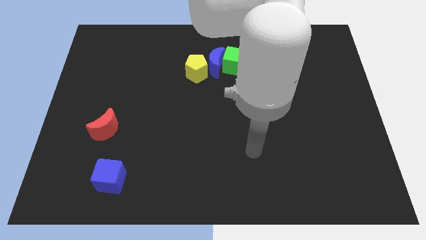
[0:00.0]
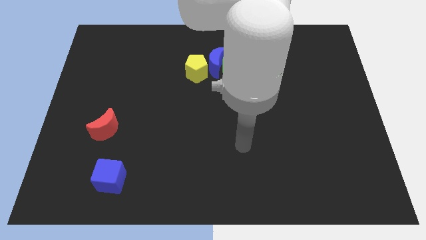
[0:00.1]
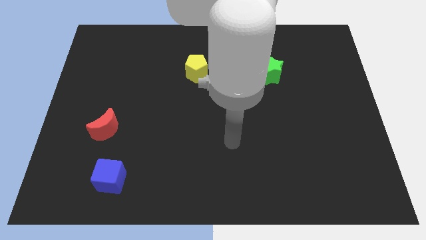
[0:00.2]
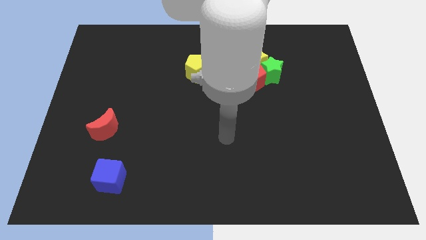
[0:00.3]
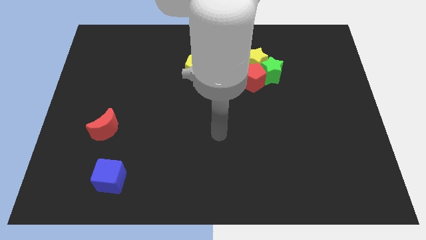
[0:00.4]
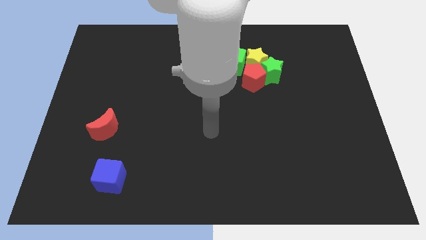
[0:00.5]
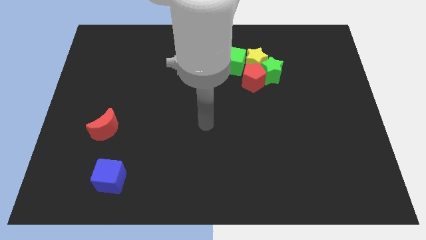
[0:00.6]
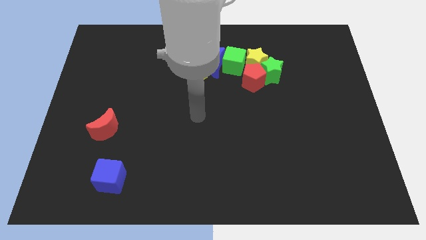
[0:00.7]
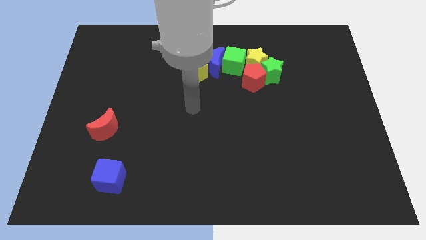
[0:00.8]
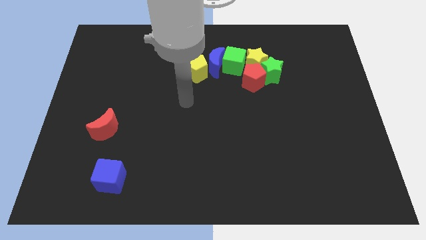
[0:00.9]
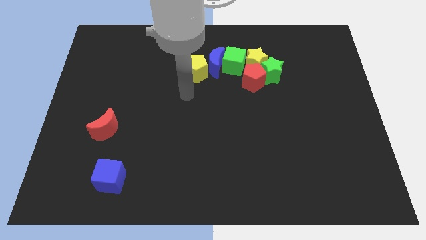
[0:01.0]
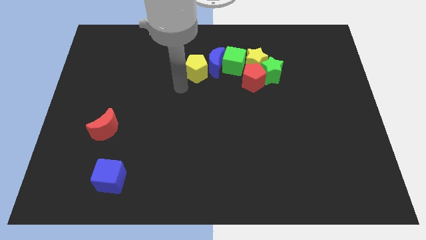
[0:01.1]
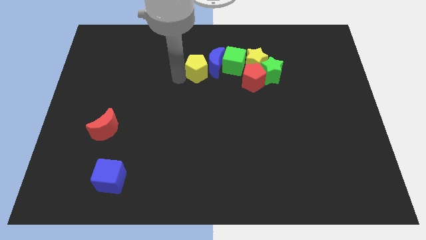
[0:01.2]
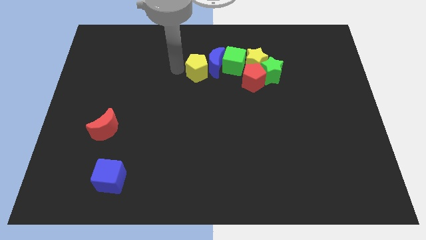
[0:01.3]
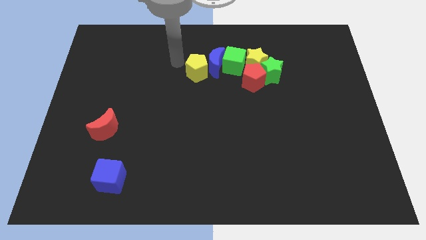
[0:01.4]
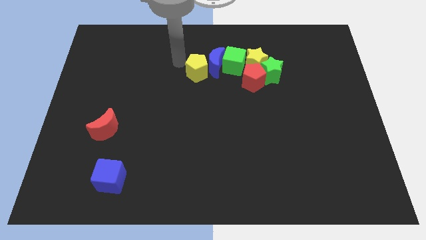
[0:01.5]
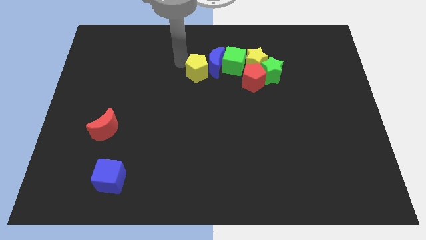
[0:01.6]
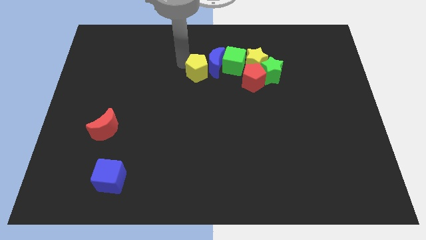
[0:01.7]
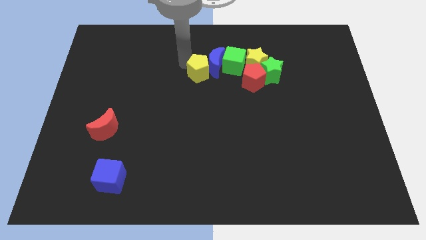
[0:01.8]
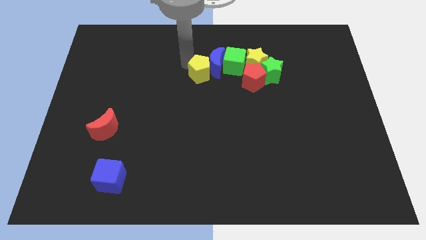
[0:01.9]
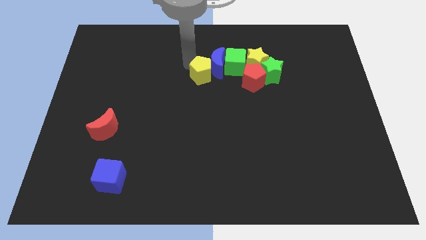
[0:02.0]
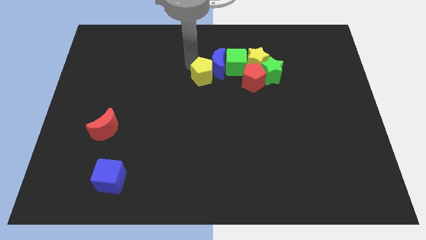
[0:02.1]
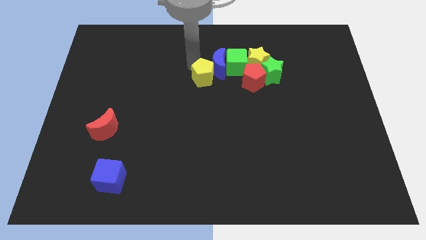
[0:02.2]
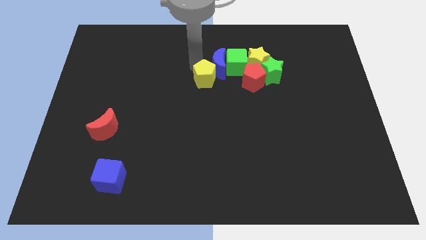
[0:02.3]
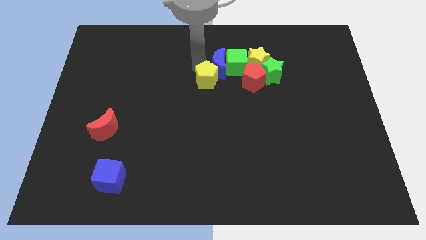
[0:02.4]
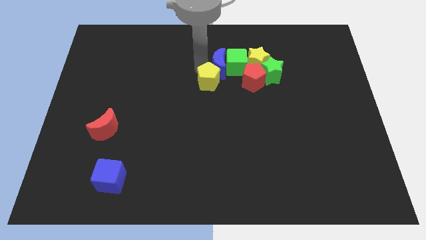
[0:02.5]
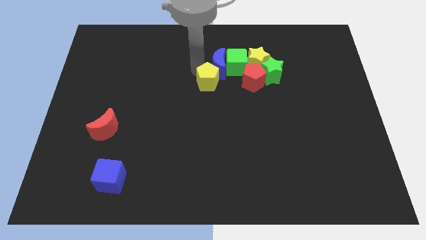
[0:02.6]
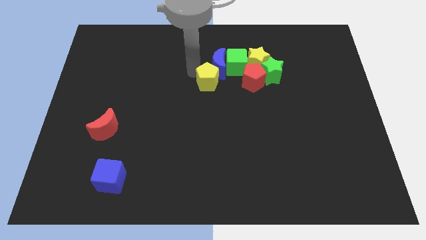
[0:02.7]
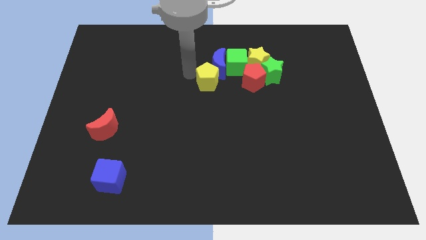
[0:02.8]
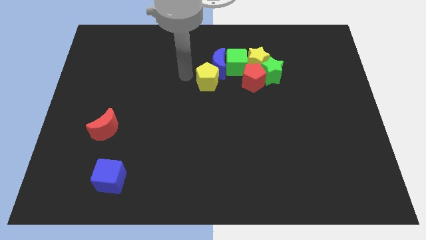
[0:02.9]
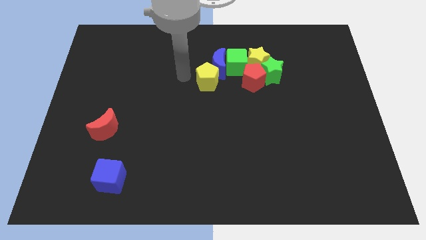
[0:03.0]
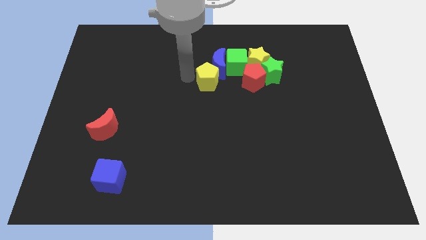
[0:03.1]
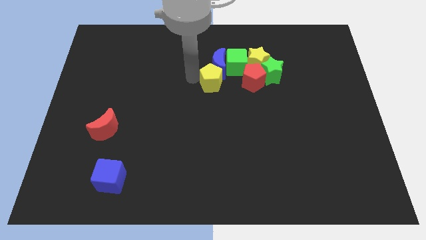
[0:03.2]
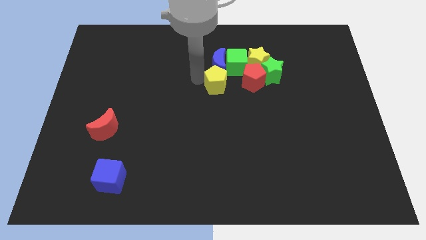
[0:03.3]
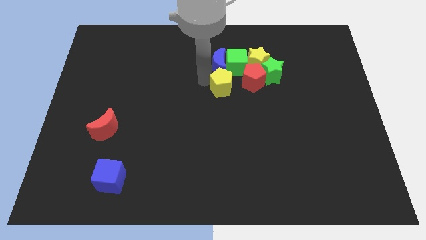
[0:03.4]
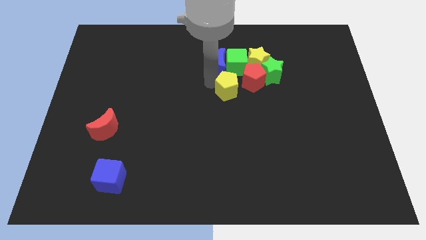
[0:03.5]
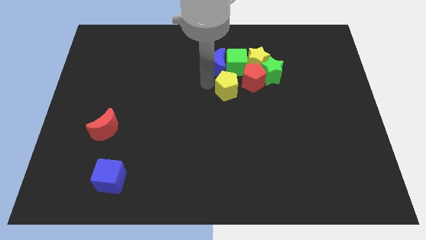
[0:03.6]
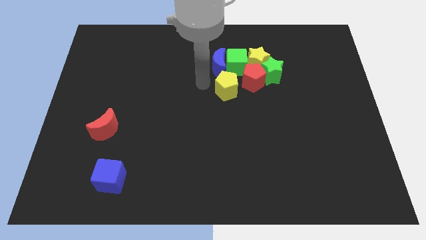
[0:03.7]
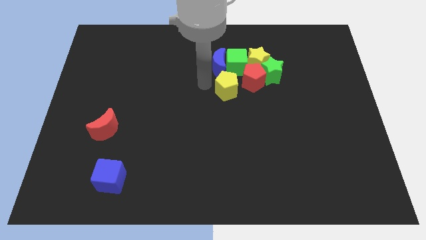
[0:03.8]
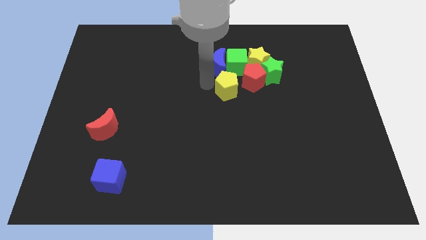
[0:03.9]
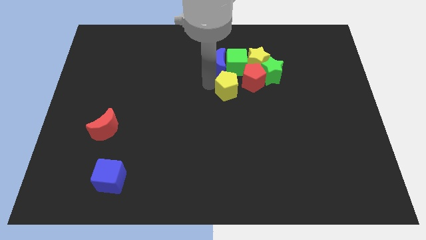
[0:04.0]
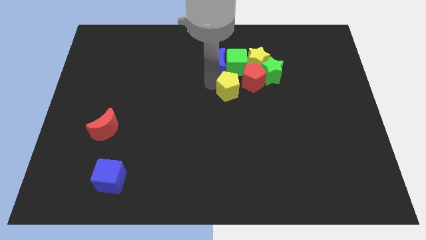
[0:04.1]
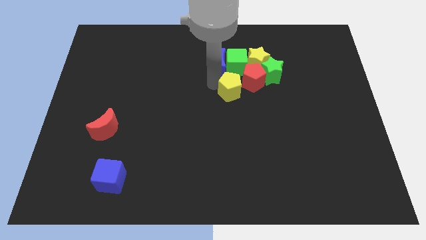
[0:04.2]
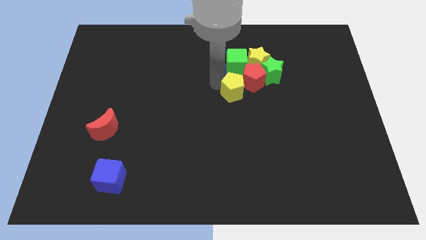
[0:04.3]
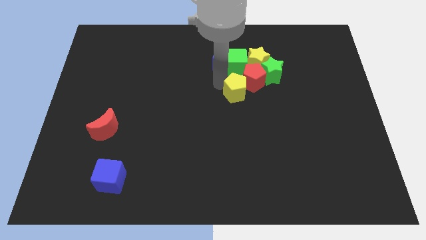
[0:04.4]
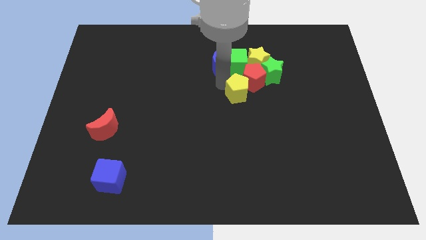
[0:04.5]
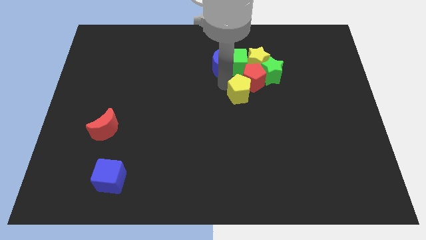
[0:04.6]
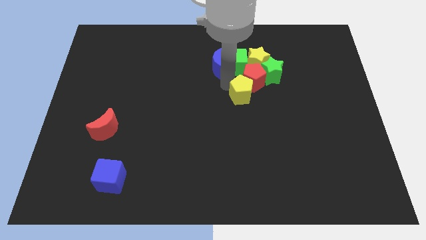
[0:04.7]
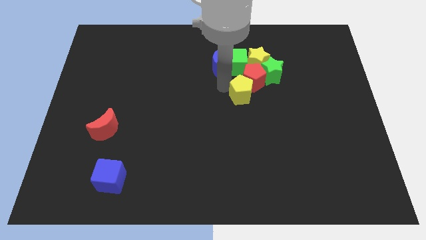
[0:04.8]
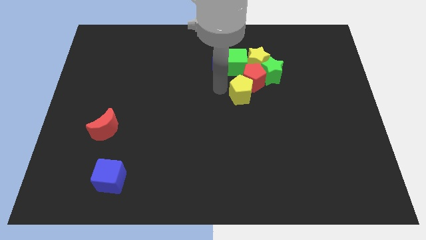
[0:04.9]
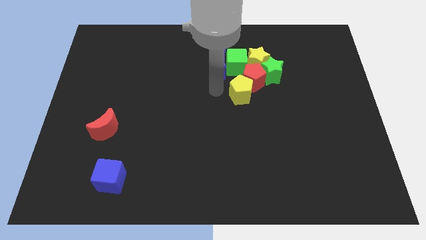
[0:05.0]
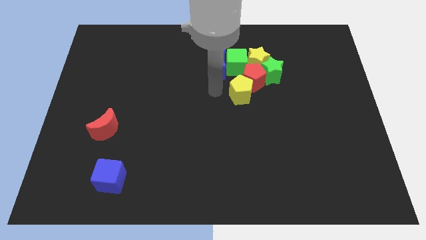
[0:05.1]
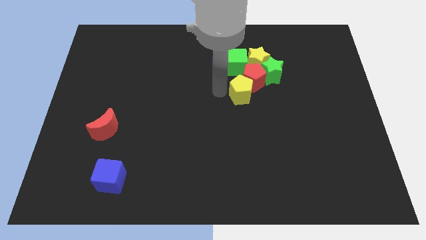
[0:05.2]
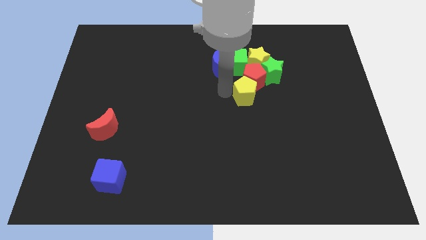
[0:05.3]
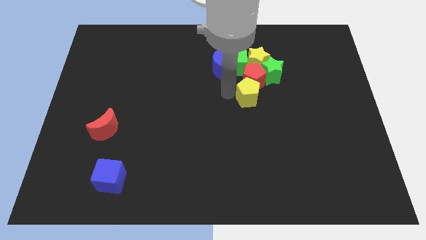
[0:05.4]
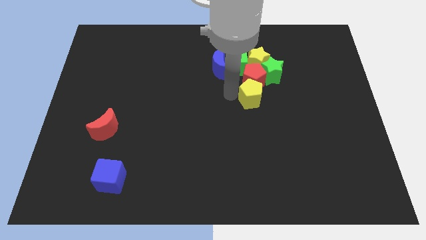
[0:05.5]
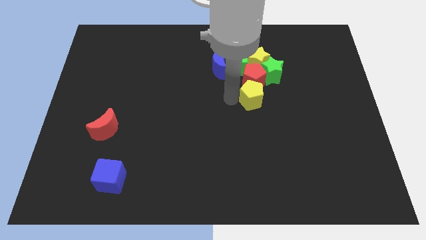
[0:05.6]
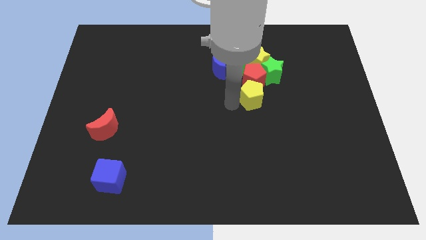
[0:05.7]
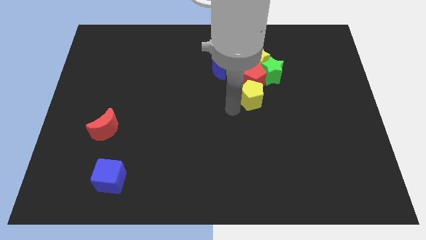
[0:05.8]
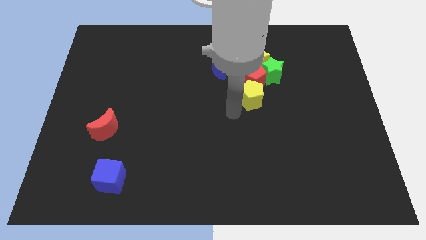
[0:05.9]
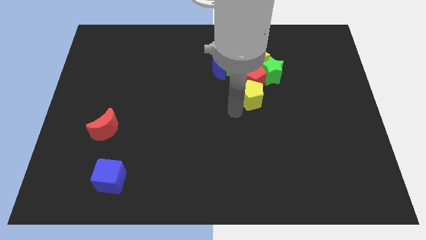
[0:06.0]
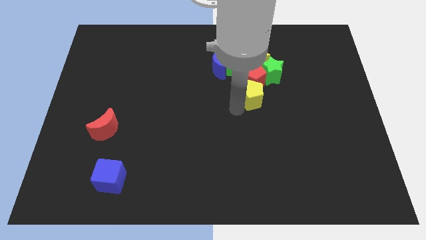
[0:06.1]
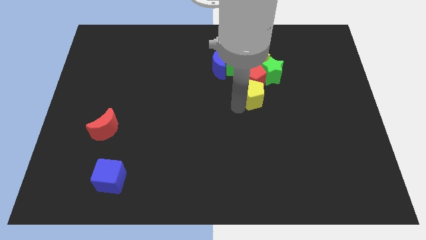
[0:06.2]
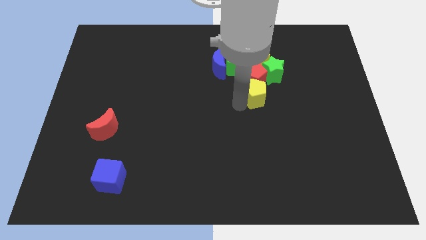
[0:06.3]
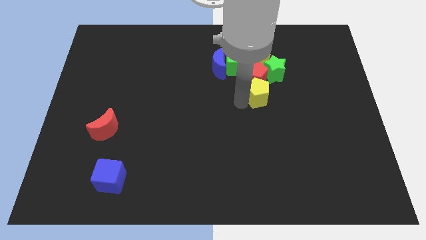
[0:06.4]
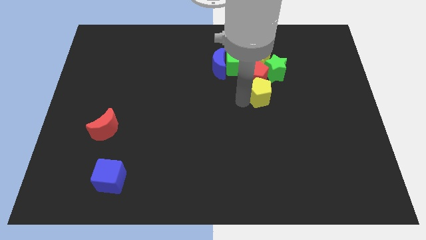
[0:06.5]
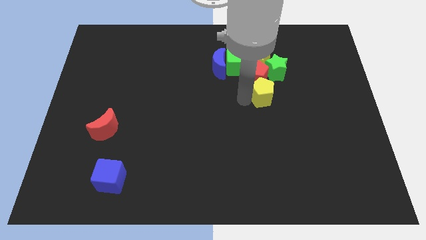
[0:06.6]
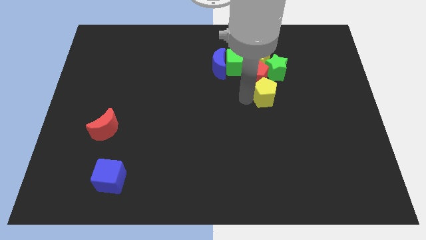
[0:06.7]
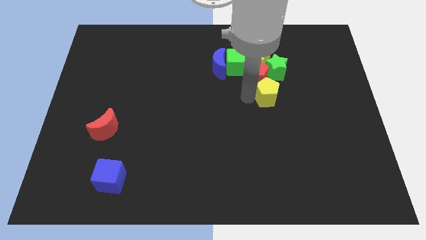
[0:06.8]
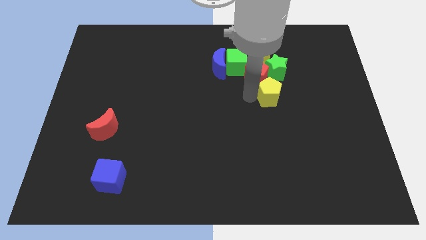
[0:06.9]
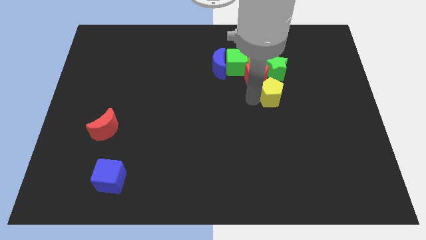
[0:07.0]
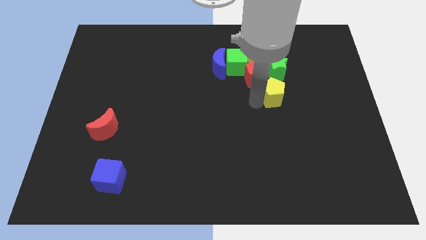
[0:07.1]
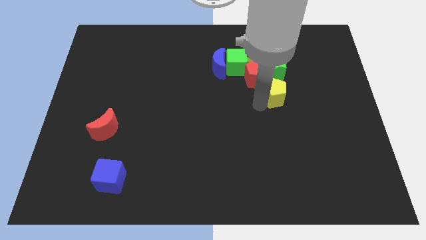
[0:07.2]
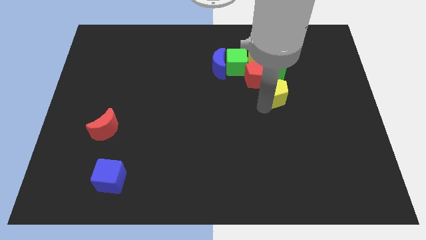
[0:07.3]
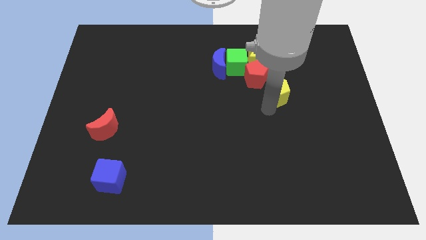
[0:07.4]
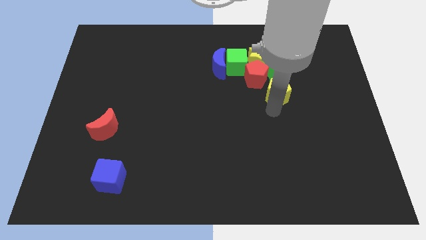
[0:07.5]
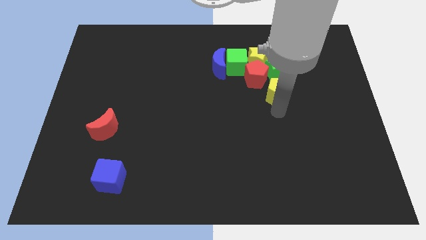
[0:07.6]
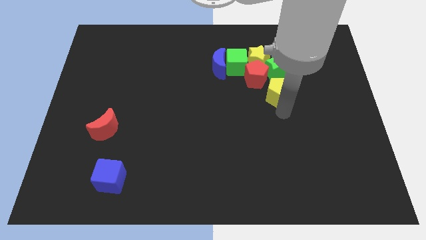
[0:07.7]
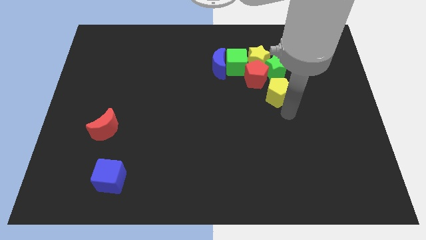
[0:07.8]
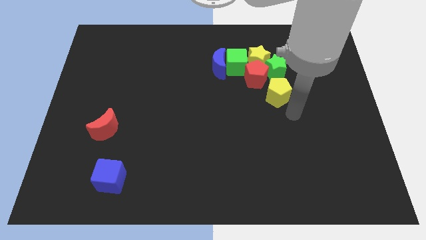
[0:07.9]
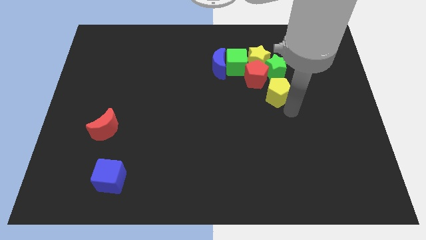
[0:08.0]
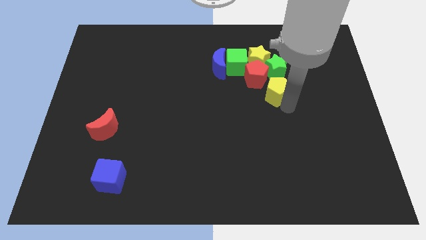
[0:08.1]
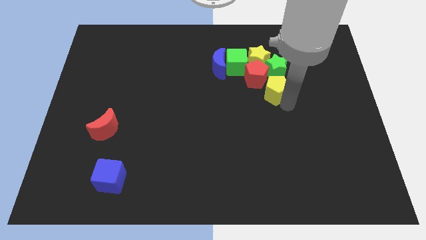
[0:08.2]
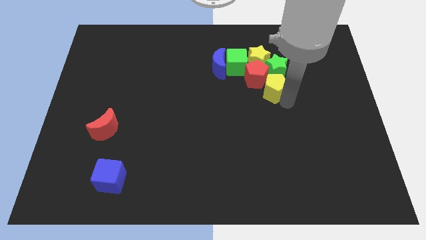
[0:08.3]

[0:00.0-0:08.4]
slide the yellow pentagon to the green star
